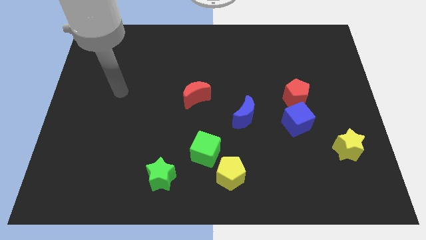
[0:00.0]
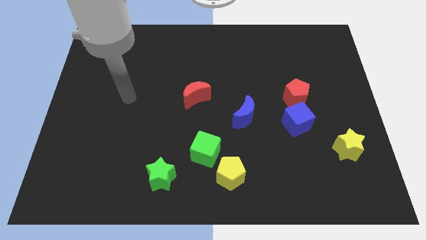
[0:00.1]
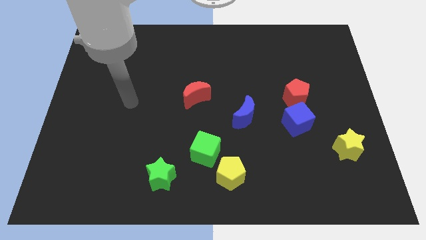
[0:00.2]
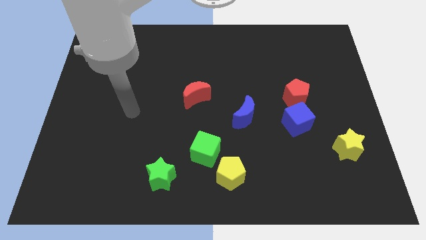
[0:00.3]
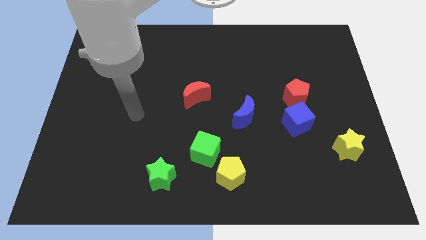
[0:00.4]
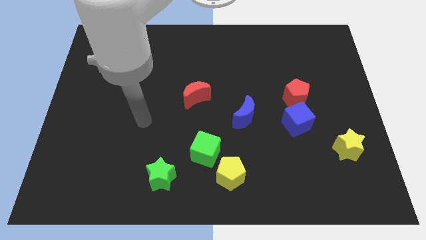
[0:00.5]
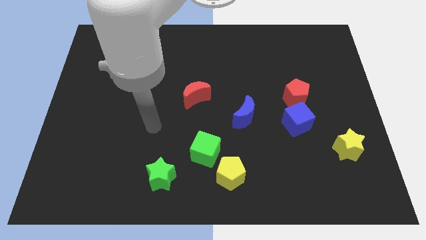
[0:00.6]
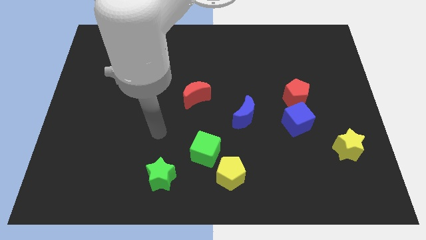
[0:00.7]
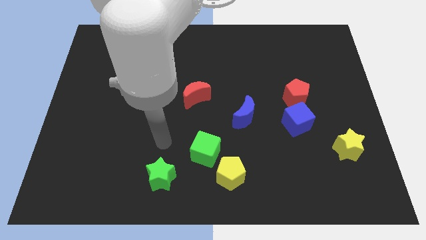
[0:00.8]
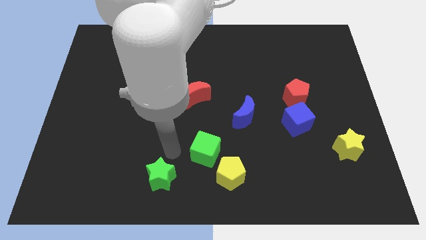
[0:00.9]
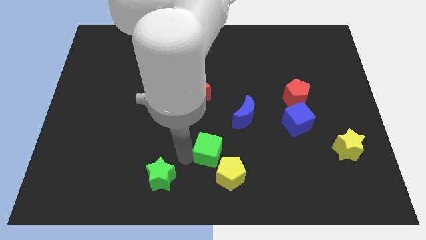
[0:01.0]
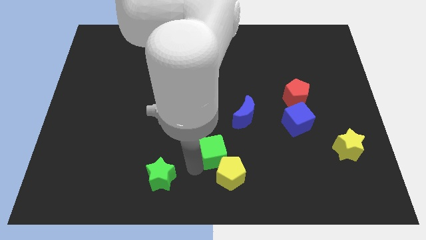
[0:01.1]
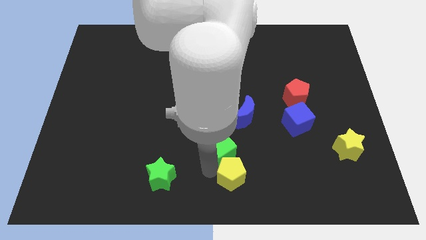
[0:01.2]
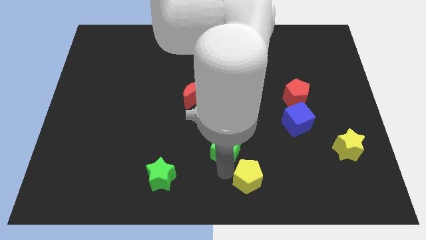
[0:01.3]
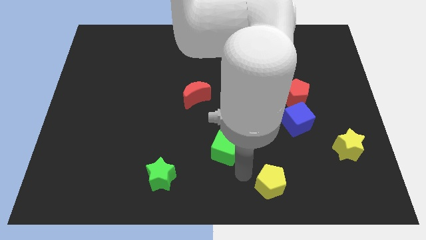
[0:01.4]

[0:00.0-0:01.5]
pull the green cube apart from the yellow pentagon

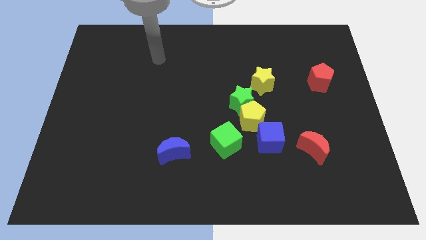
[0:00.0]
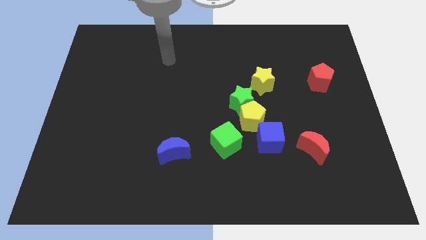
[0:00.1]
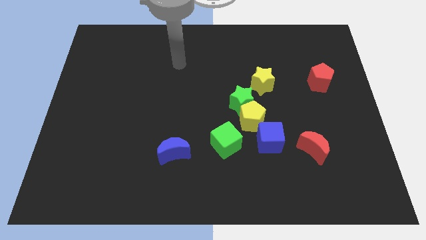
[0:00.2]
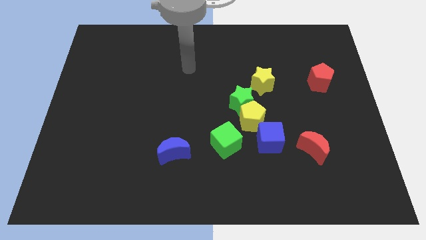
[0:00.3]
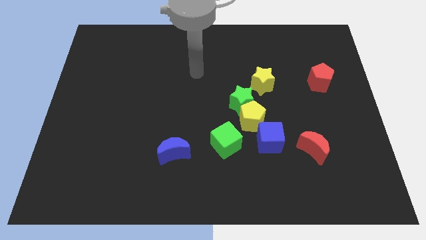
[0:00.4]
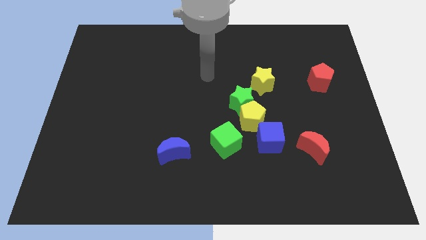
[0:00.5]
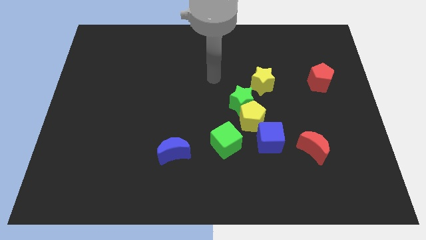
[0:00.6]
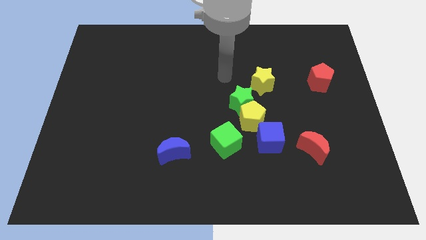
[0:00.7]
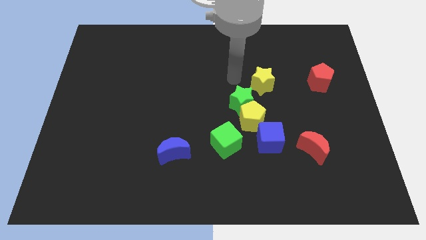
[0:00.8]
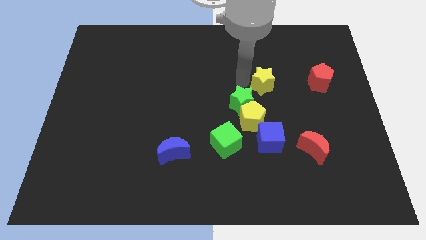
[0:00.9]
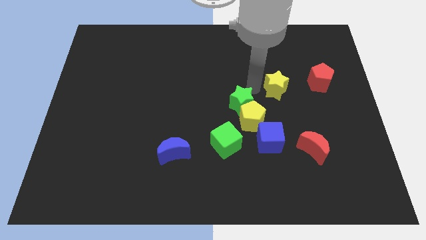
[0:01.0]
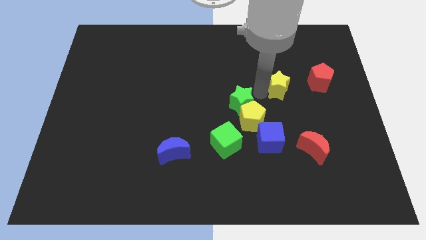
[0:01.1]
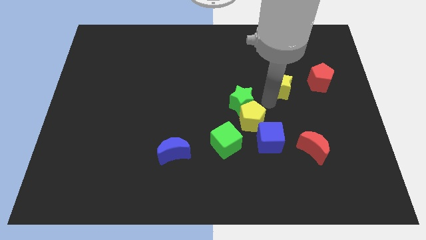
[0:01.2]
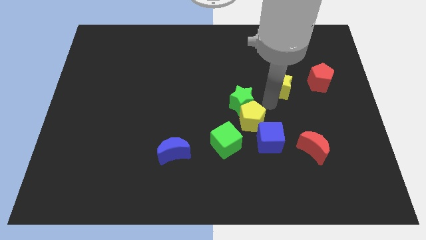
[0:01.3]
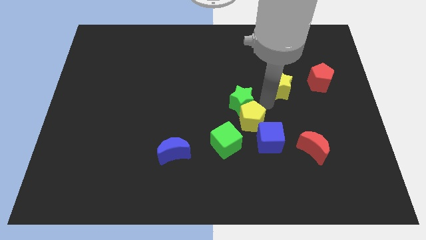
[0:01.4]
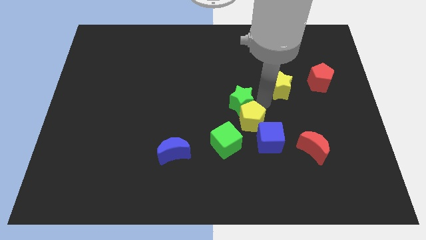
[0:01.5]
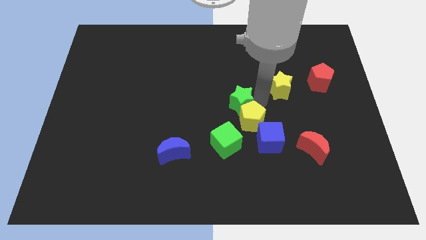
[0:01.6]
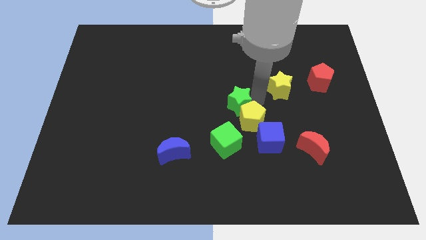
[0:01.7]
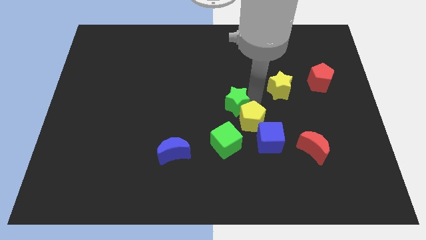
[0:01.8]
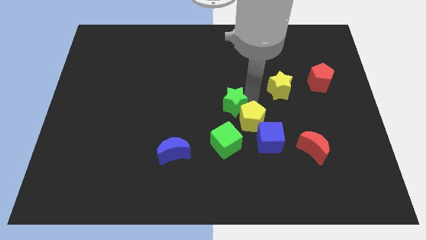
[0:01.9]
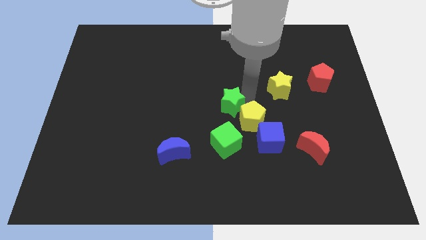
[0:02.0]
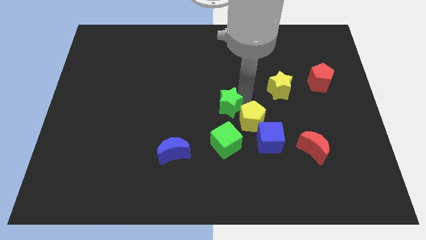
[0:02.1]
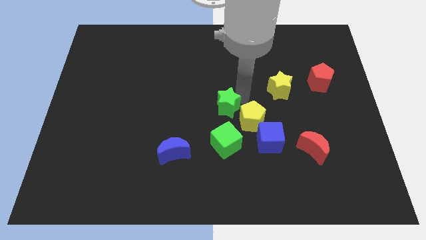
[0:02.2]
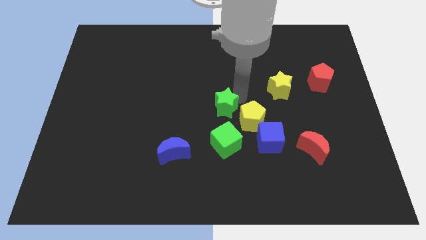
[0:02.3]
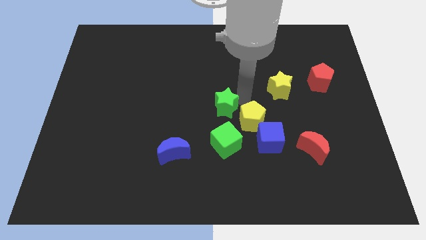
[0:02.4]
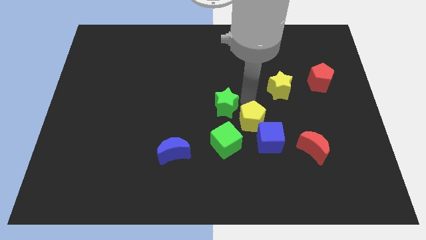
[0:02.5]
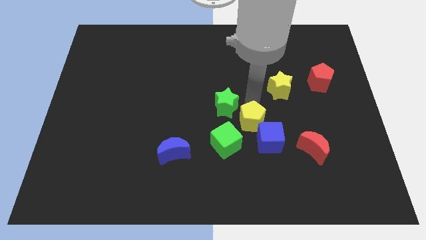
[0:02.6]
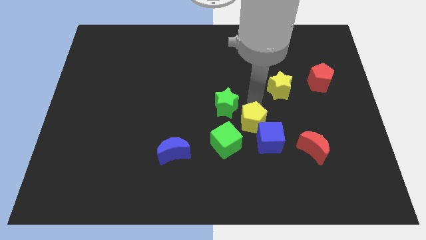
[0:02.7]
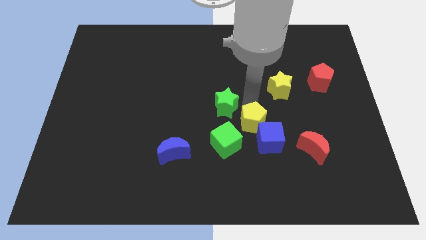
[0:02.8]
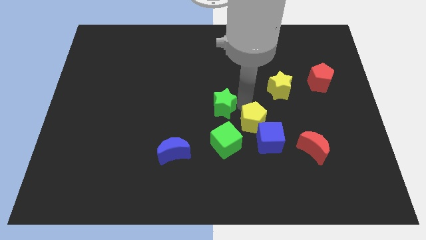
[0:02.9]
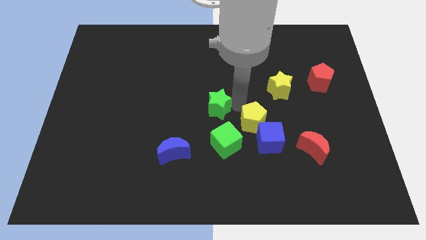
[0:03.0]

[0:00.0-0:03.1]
separate the green star from the yellow pentagon and yellow star

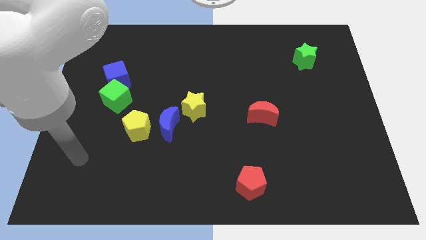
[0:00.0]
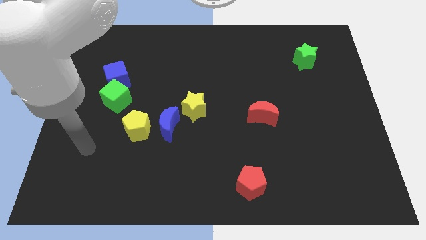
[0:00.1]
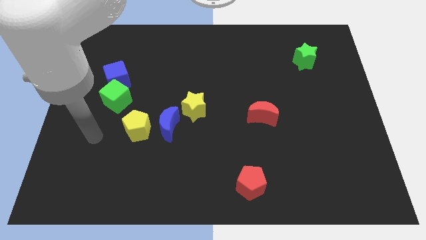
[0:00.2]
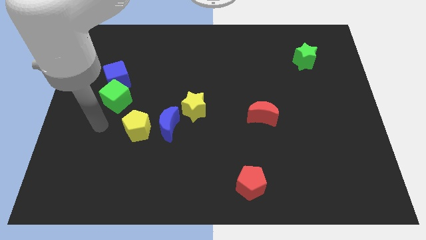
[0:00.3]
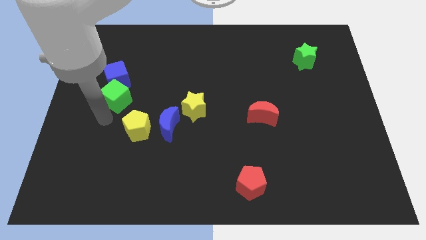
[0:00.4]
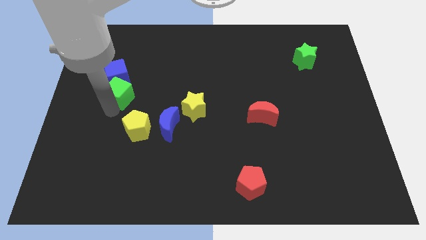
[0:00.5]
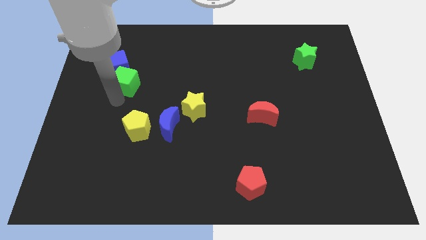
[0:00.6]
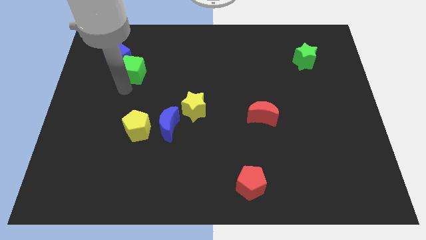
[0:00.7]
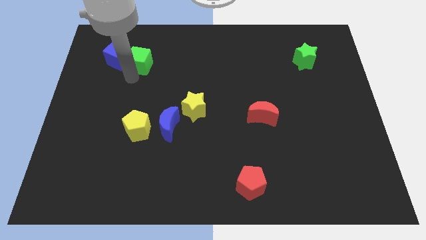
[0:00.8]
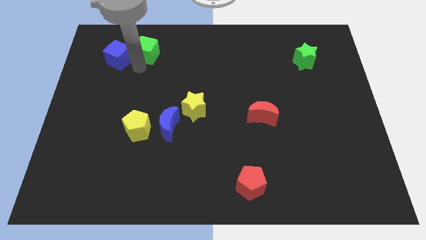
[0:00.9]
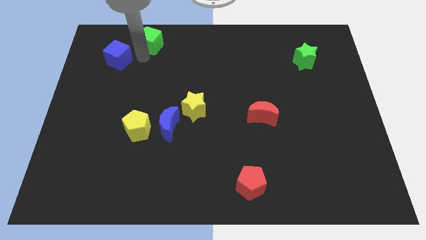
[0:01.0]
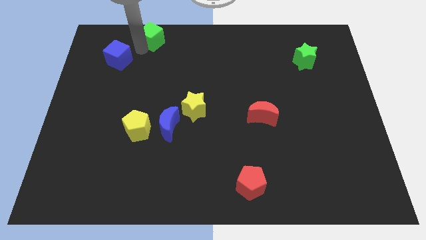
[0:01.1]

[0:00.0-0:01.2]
separate the blue cube from the green cube

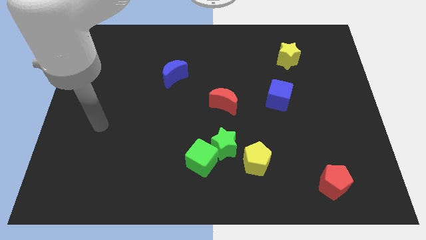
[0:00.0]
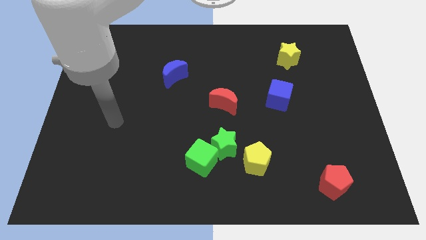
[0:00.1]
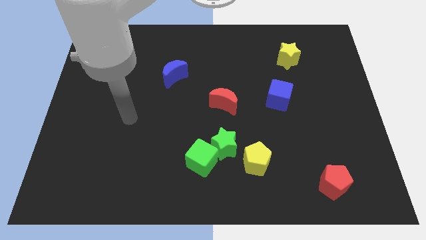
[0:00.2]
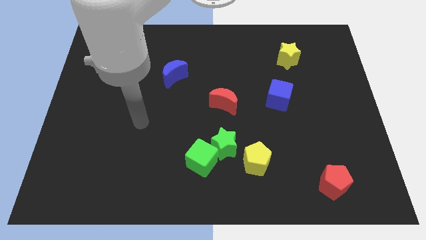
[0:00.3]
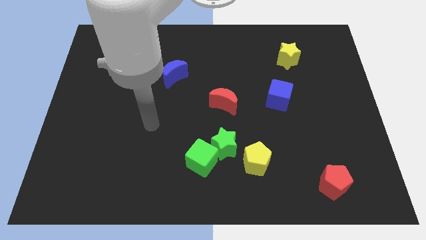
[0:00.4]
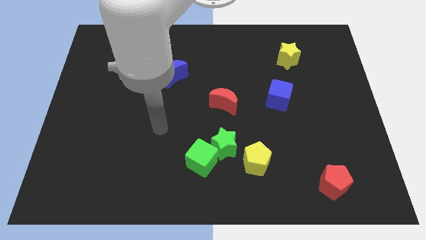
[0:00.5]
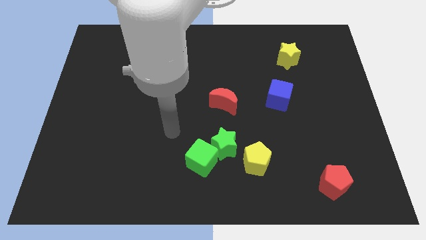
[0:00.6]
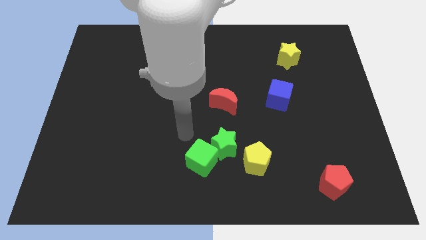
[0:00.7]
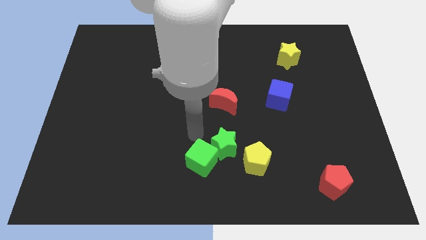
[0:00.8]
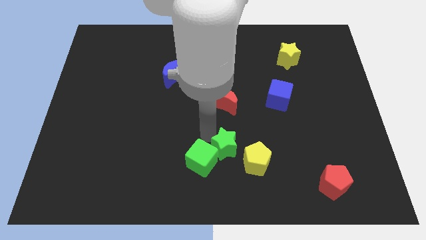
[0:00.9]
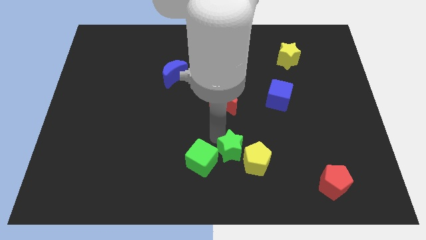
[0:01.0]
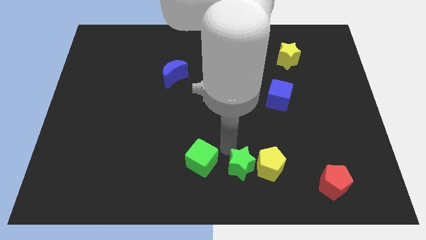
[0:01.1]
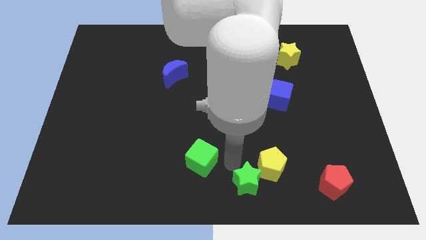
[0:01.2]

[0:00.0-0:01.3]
separate the green cube from the green star

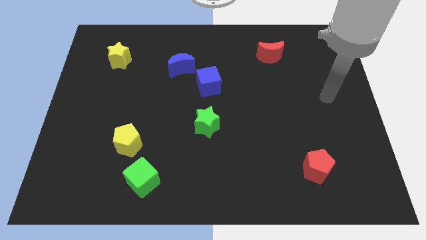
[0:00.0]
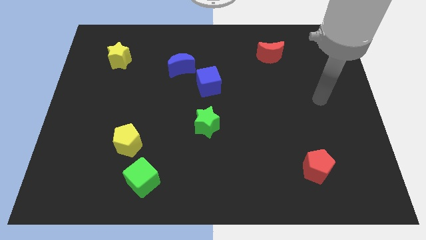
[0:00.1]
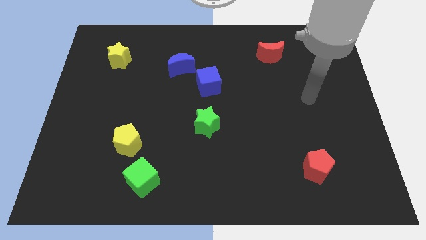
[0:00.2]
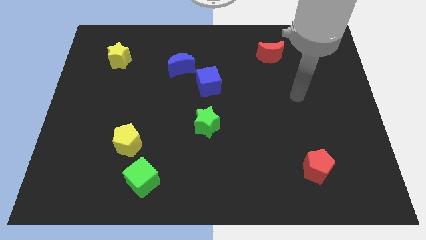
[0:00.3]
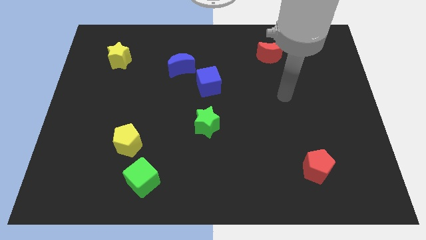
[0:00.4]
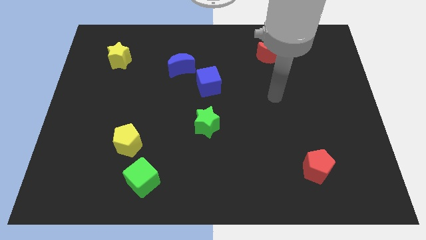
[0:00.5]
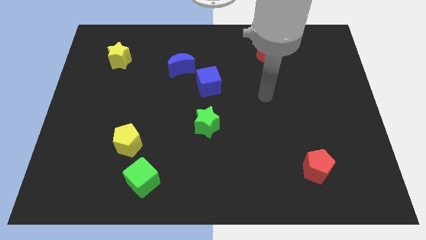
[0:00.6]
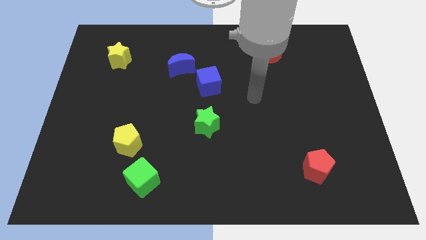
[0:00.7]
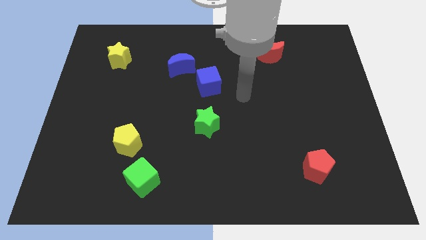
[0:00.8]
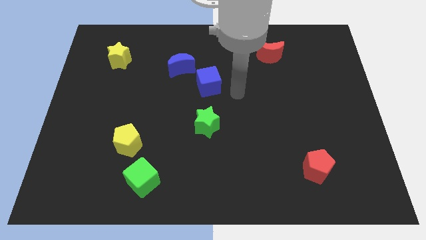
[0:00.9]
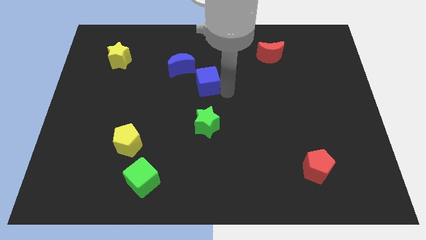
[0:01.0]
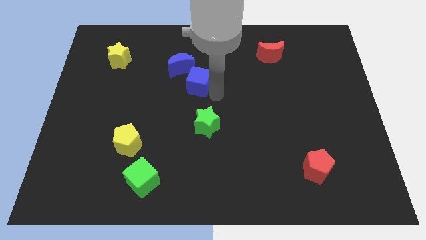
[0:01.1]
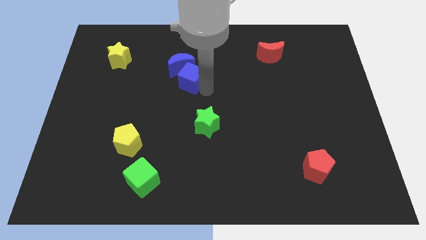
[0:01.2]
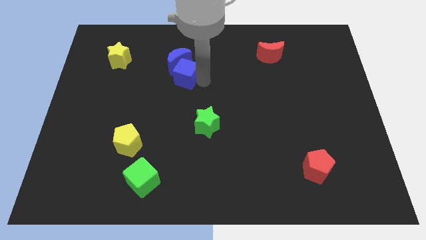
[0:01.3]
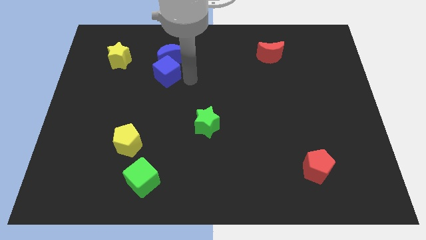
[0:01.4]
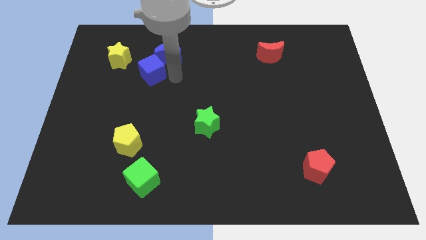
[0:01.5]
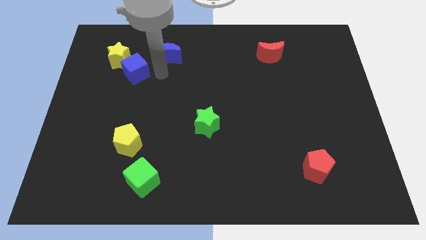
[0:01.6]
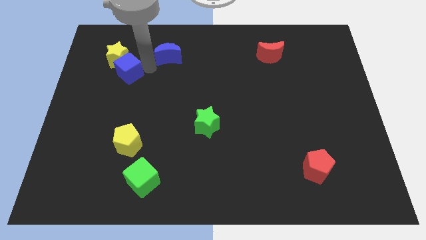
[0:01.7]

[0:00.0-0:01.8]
move the blue moon away from the blue cube

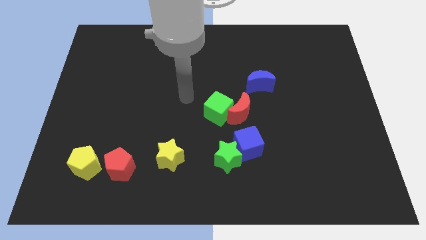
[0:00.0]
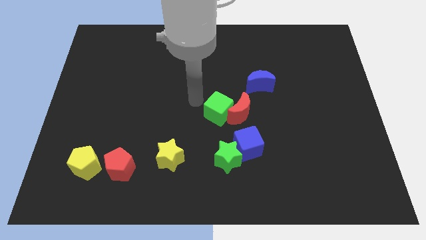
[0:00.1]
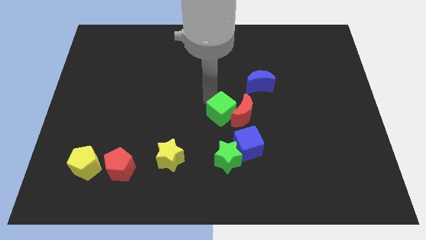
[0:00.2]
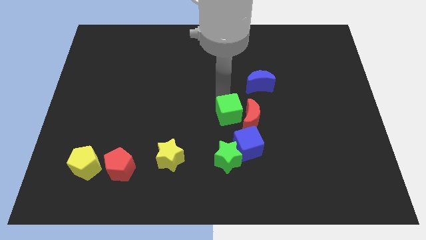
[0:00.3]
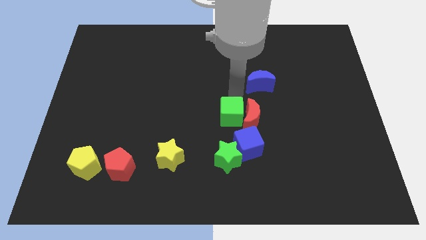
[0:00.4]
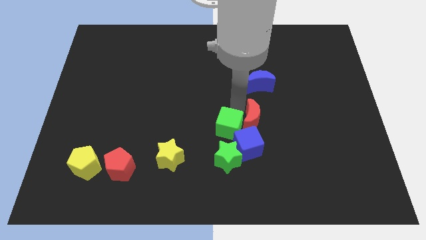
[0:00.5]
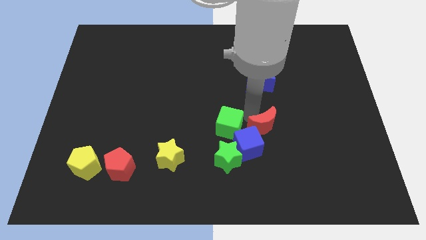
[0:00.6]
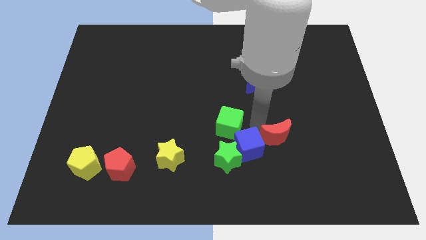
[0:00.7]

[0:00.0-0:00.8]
separate the green cube from the red moon
